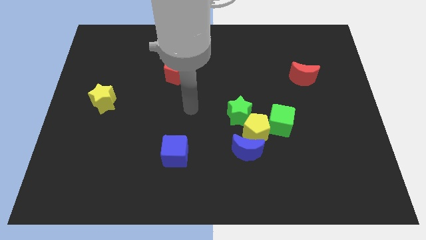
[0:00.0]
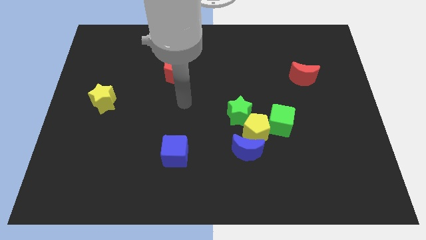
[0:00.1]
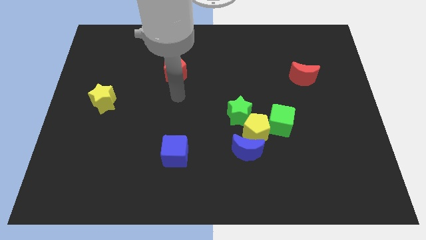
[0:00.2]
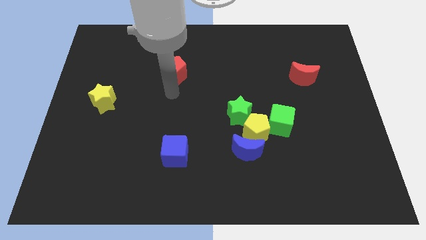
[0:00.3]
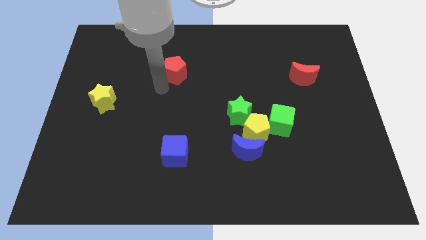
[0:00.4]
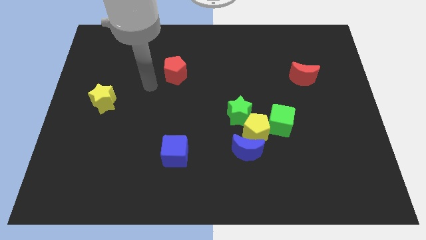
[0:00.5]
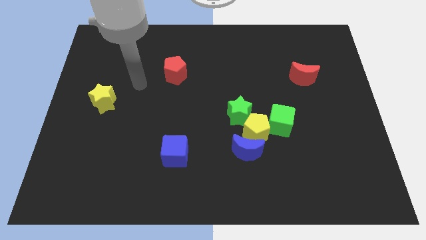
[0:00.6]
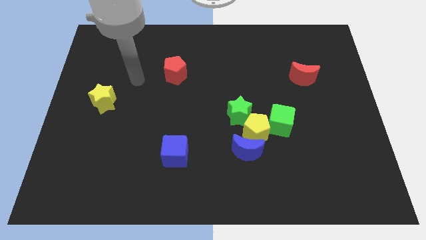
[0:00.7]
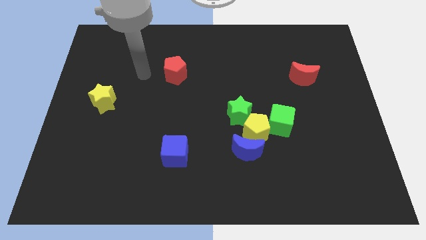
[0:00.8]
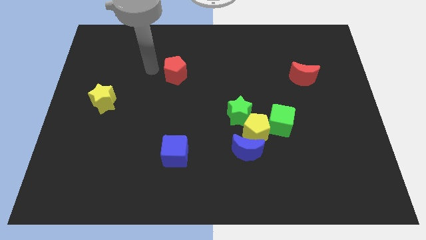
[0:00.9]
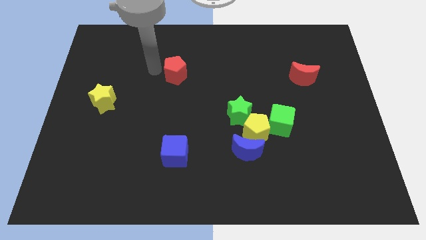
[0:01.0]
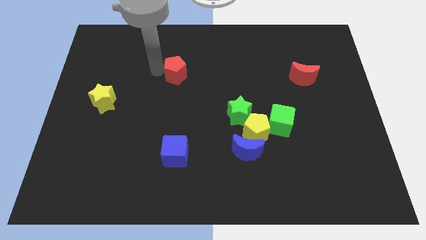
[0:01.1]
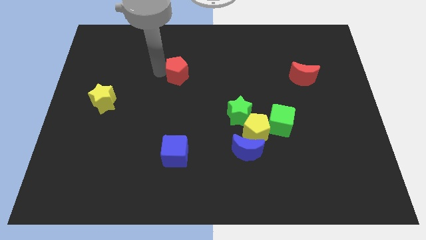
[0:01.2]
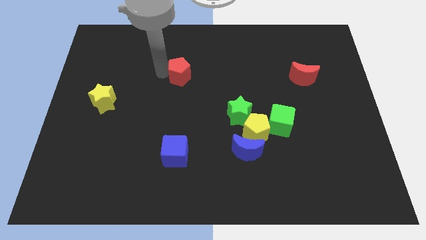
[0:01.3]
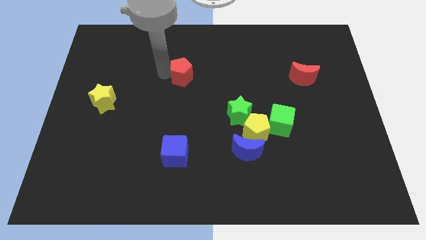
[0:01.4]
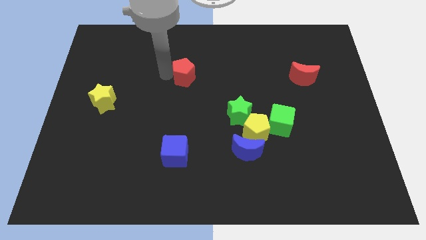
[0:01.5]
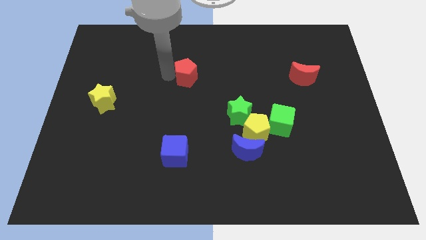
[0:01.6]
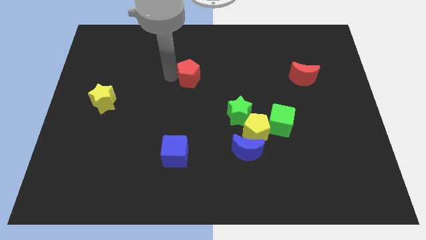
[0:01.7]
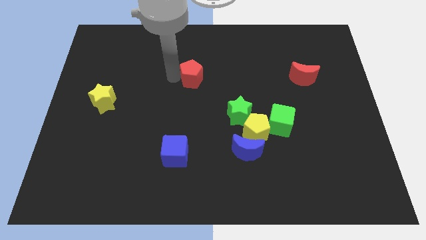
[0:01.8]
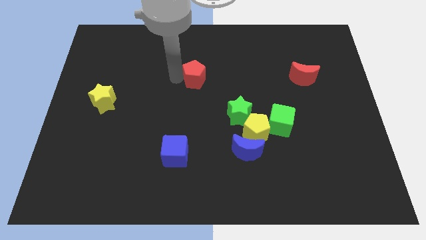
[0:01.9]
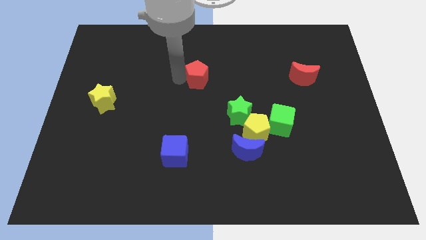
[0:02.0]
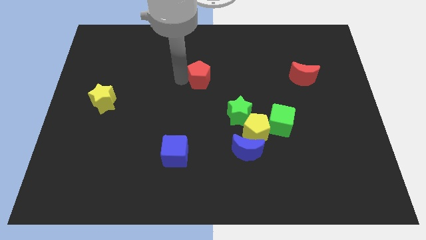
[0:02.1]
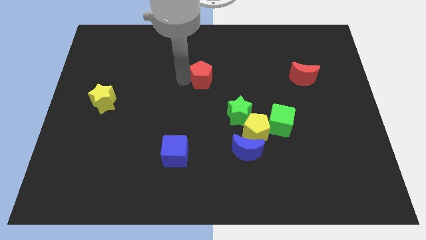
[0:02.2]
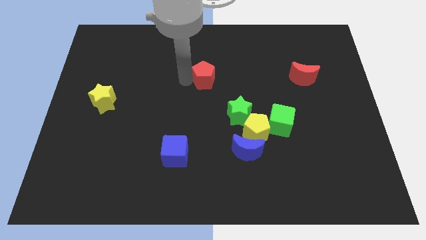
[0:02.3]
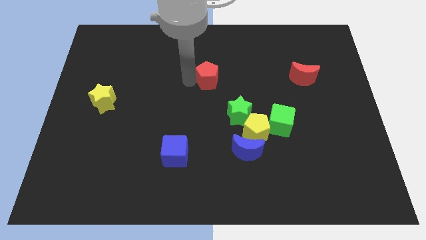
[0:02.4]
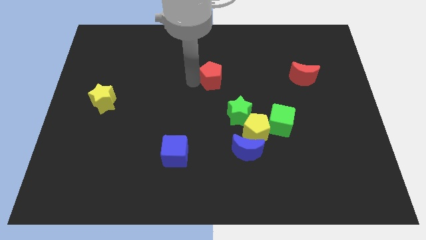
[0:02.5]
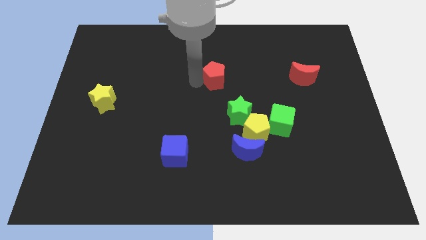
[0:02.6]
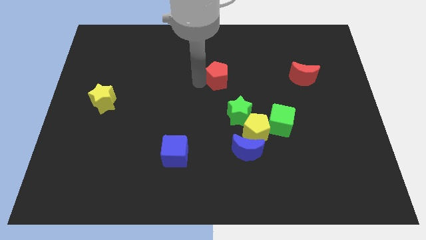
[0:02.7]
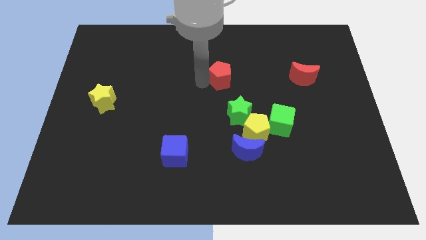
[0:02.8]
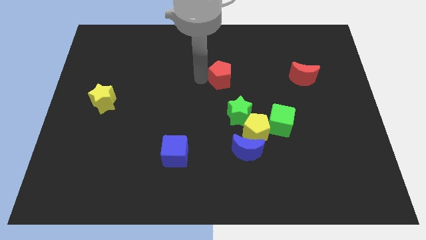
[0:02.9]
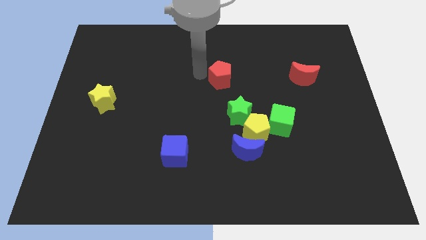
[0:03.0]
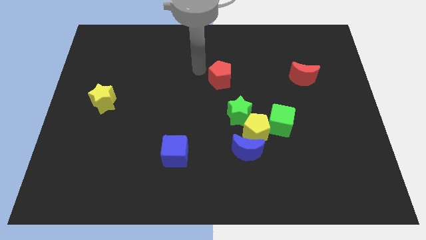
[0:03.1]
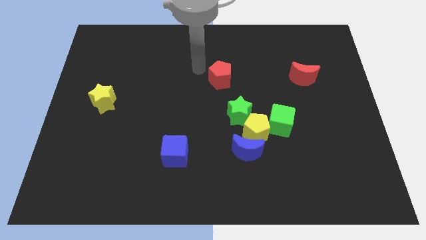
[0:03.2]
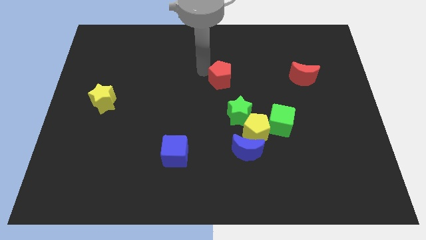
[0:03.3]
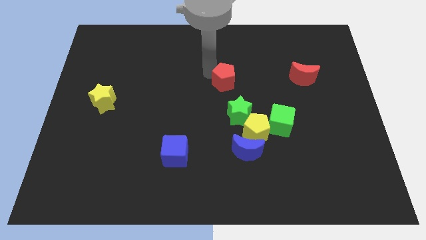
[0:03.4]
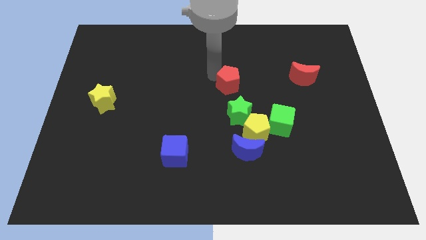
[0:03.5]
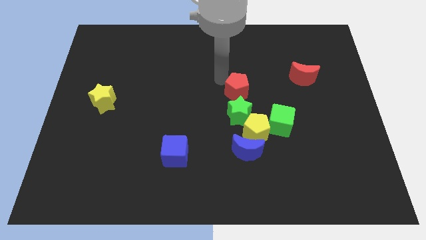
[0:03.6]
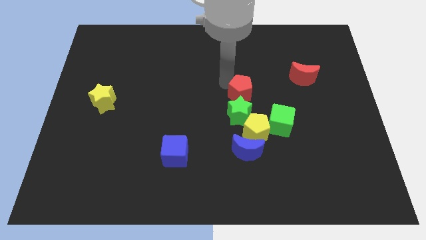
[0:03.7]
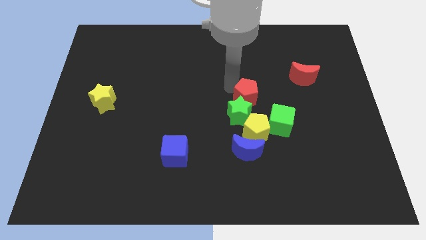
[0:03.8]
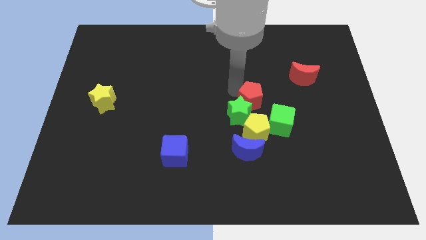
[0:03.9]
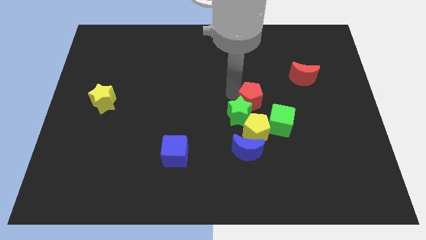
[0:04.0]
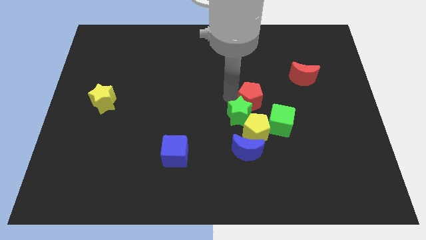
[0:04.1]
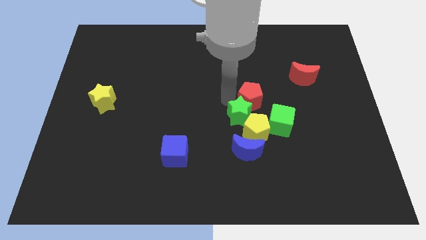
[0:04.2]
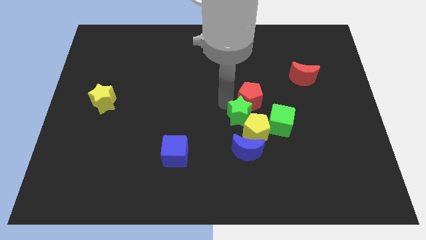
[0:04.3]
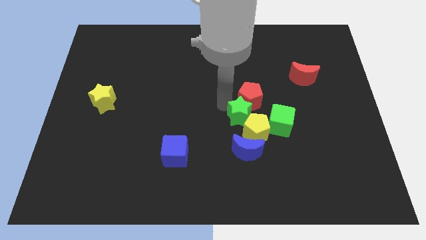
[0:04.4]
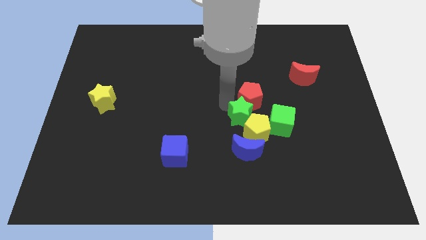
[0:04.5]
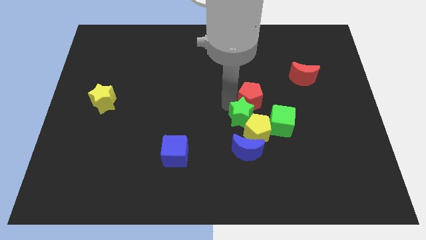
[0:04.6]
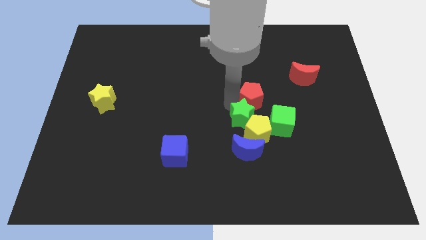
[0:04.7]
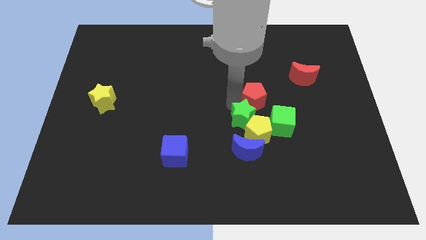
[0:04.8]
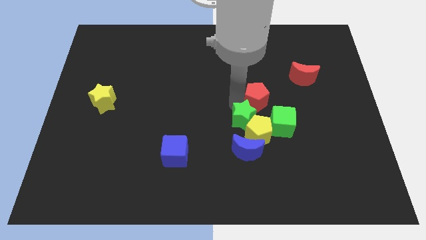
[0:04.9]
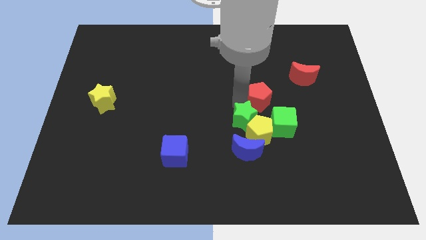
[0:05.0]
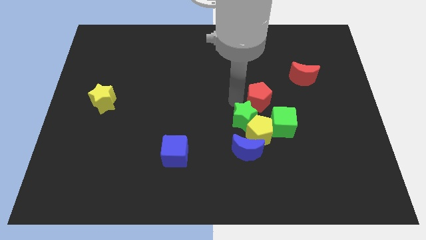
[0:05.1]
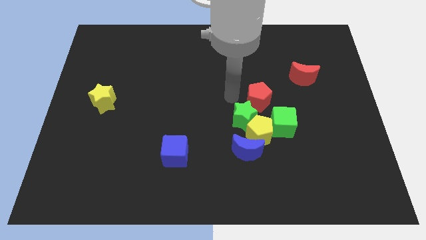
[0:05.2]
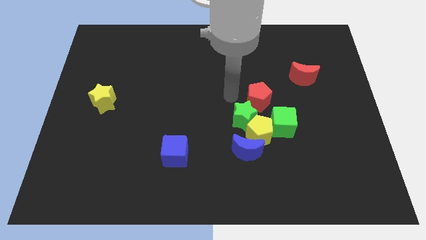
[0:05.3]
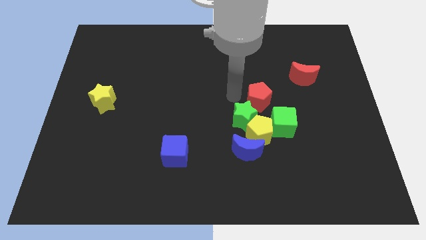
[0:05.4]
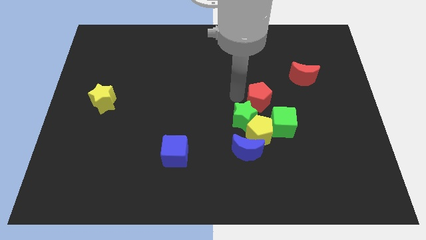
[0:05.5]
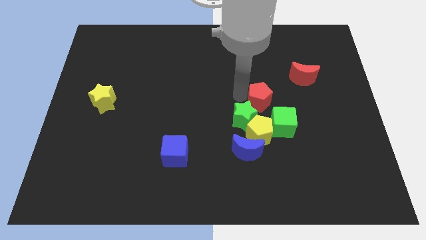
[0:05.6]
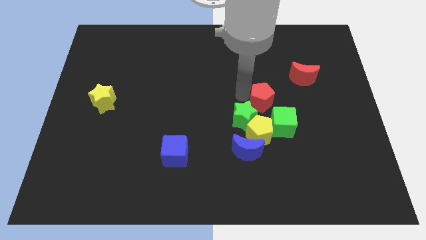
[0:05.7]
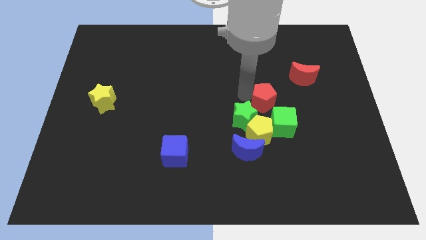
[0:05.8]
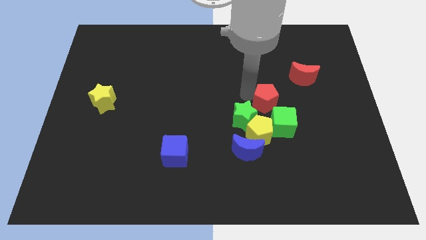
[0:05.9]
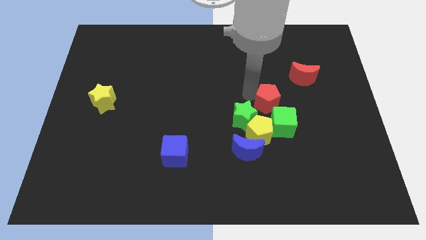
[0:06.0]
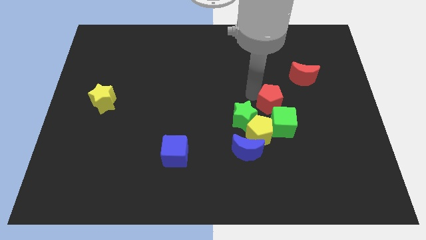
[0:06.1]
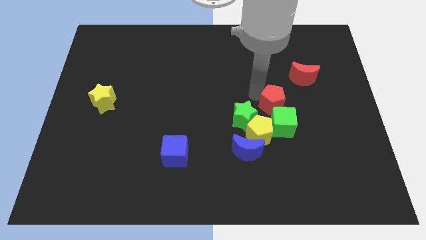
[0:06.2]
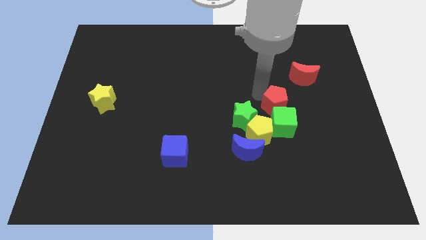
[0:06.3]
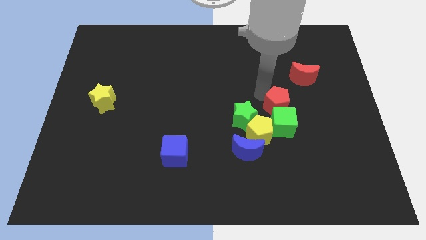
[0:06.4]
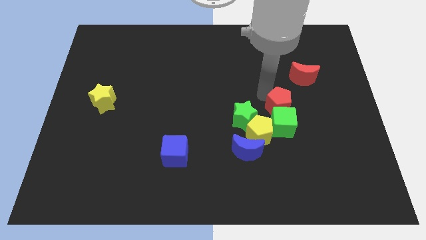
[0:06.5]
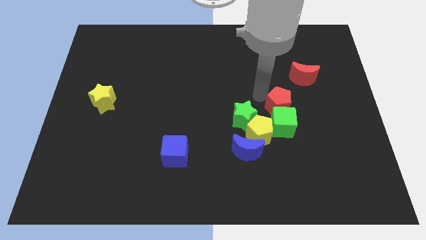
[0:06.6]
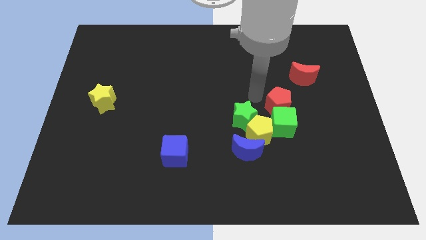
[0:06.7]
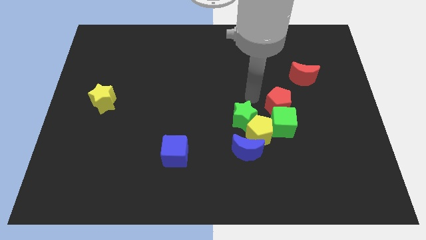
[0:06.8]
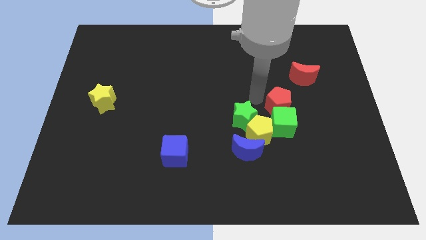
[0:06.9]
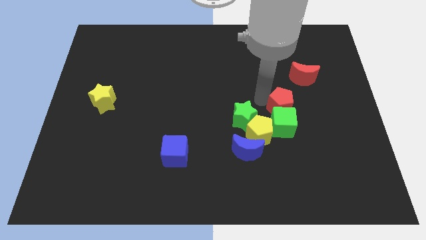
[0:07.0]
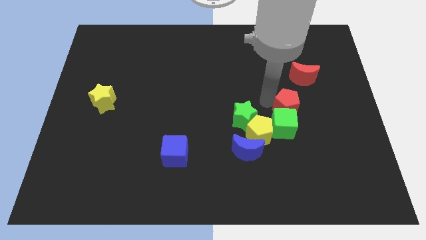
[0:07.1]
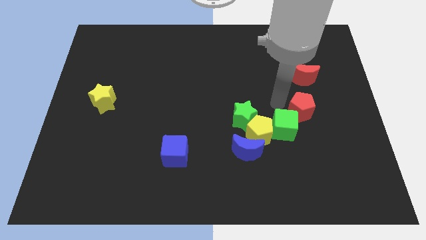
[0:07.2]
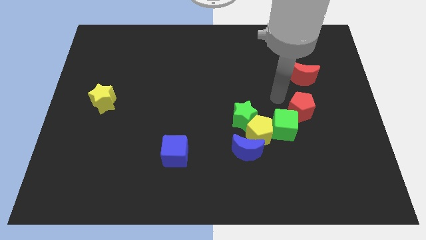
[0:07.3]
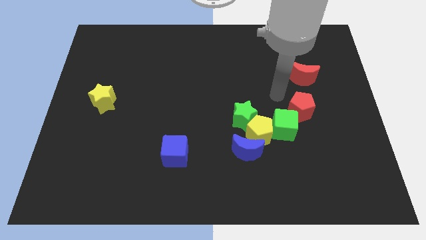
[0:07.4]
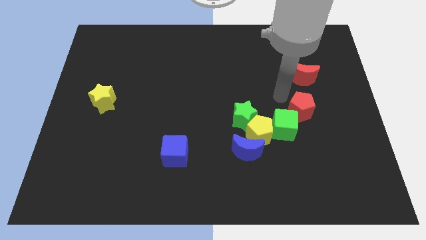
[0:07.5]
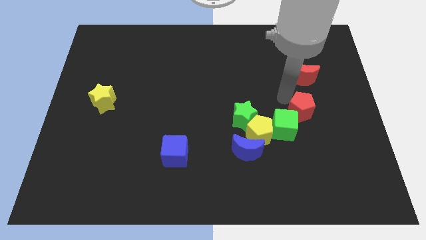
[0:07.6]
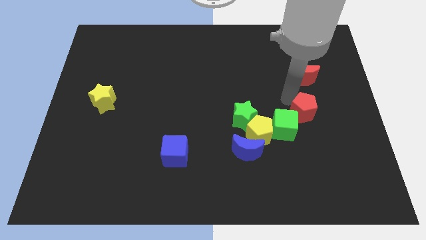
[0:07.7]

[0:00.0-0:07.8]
put the red pentagon to the right of the green cube
